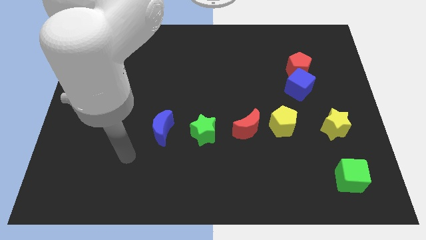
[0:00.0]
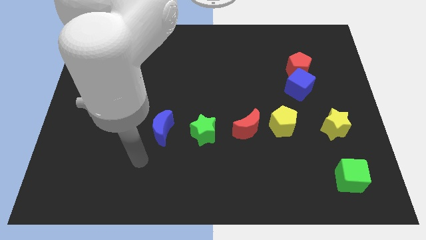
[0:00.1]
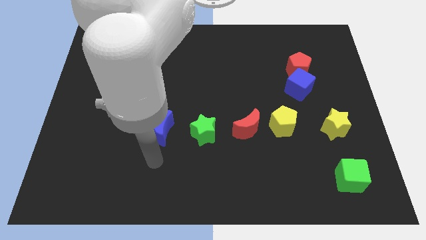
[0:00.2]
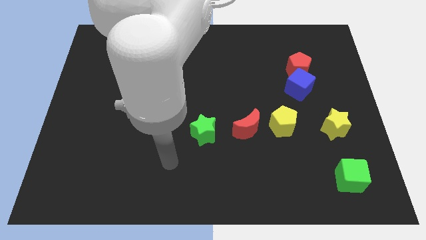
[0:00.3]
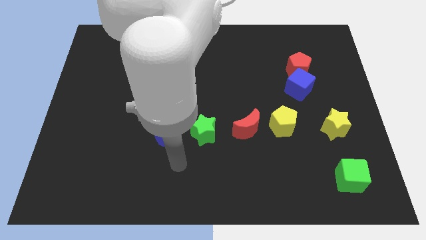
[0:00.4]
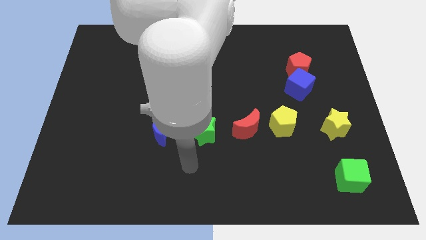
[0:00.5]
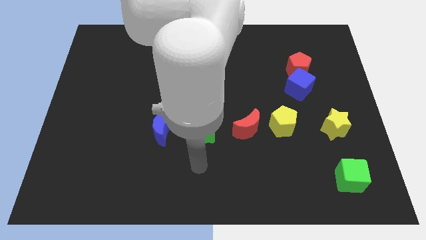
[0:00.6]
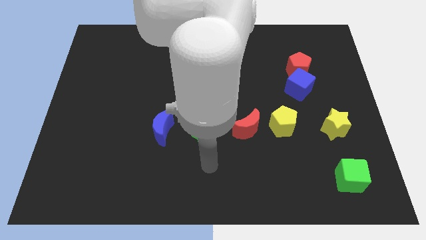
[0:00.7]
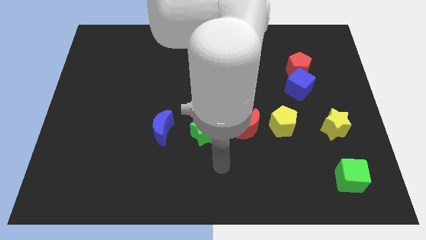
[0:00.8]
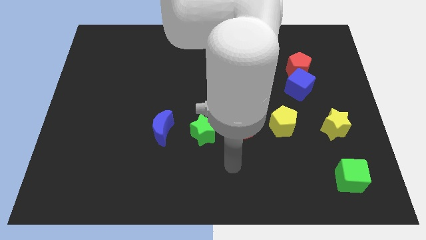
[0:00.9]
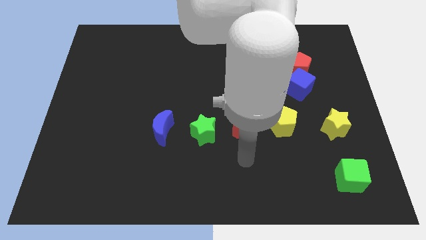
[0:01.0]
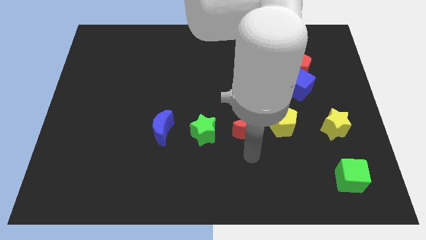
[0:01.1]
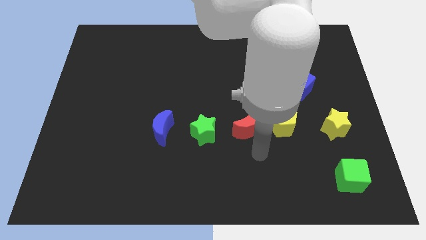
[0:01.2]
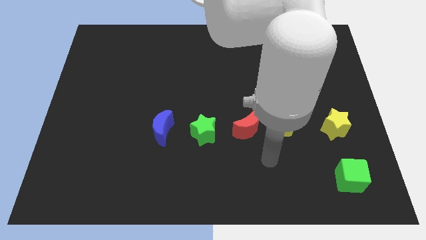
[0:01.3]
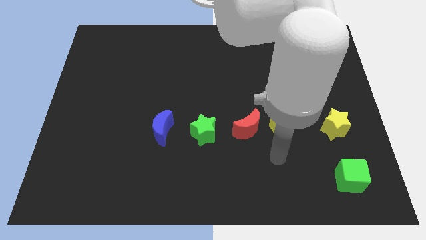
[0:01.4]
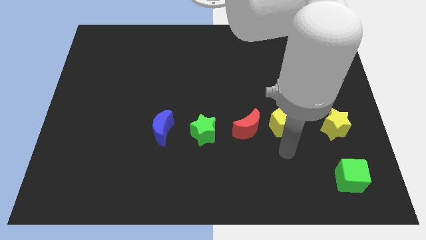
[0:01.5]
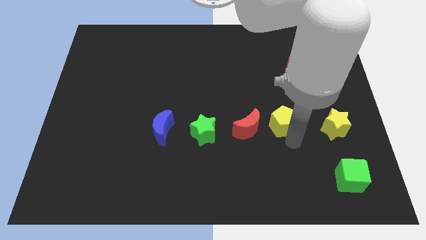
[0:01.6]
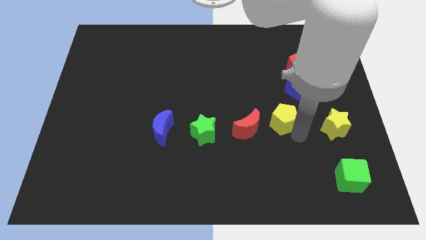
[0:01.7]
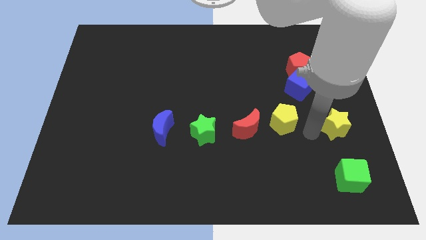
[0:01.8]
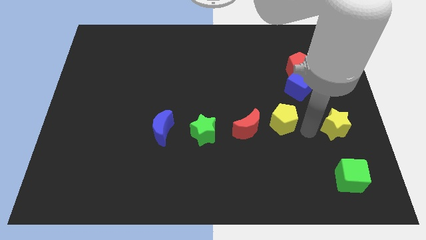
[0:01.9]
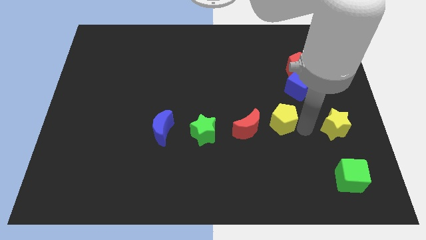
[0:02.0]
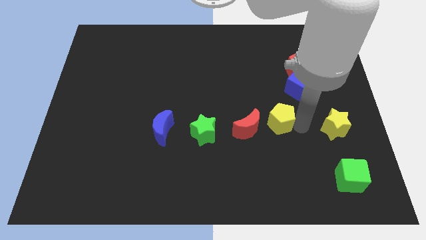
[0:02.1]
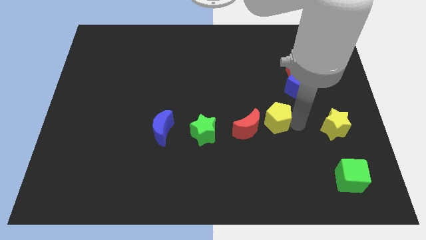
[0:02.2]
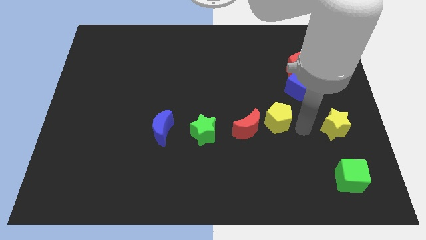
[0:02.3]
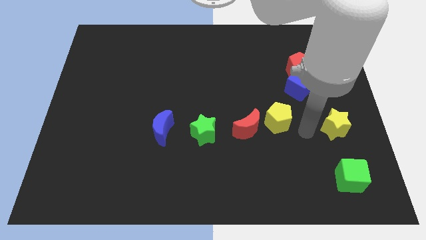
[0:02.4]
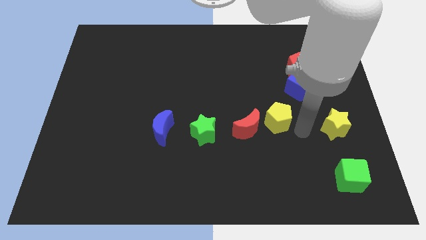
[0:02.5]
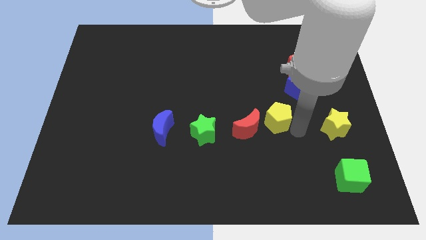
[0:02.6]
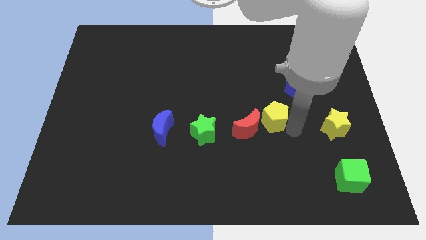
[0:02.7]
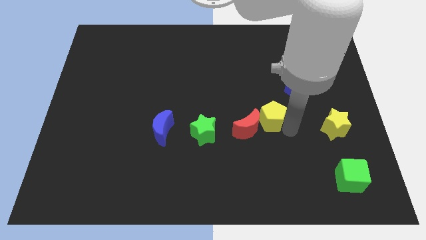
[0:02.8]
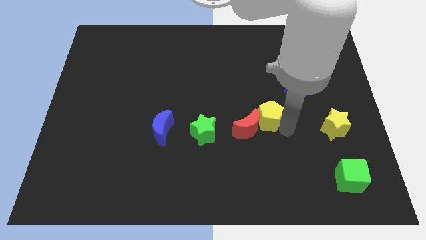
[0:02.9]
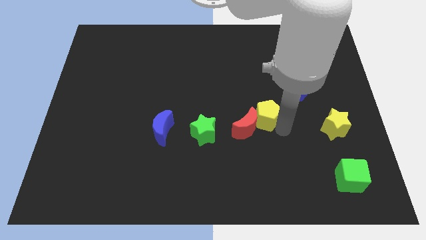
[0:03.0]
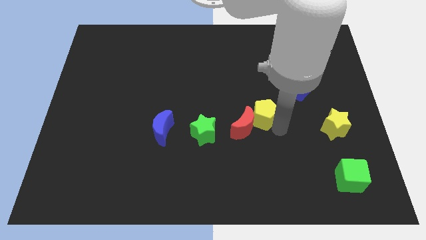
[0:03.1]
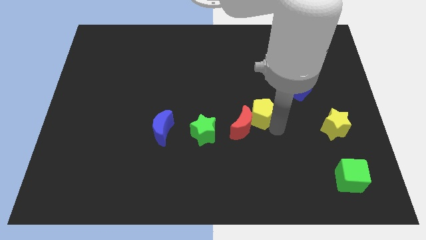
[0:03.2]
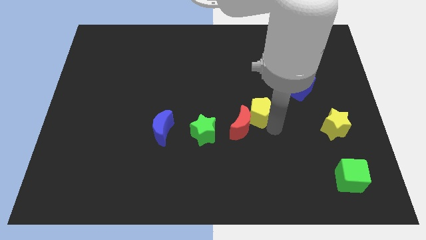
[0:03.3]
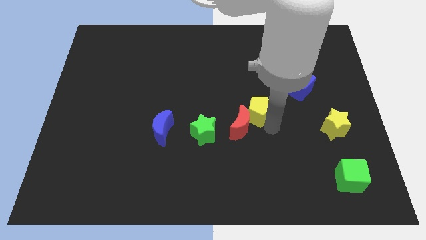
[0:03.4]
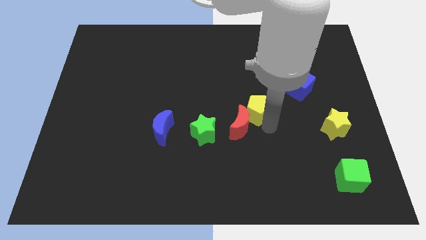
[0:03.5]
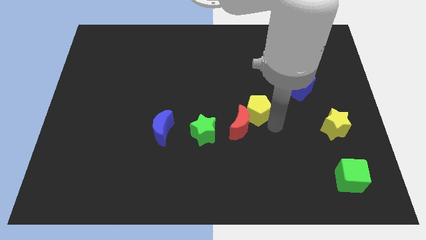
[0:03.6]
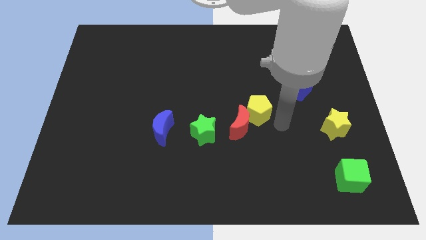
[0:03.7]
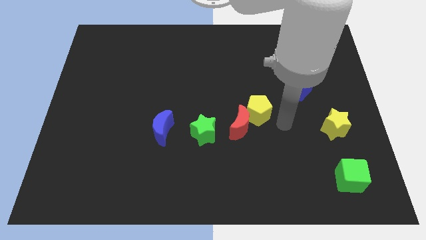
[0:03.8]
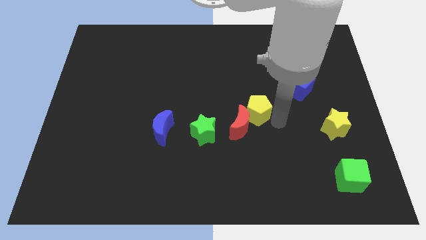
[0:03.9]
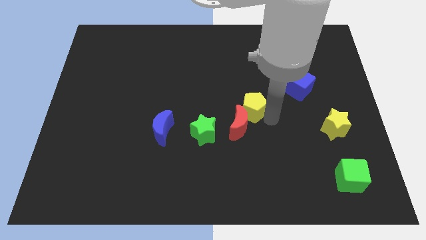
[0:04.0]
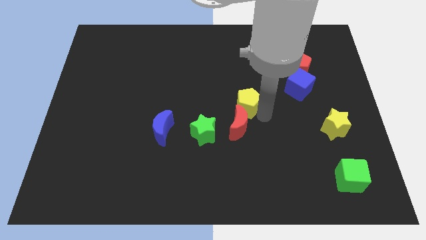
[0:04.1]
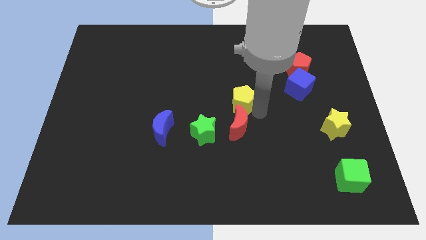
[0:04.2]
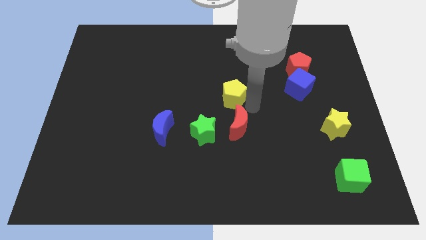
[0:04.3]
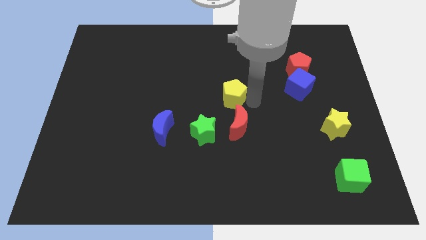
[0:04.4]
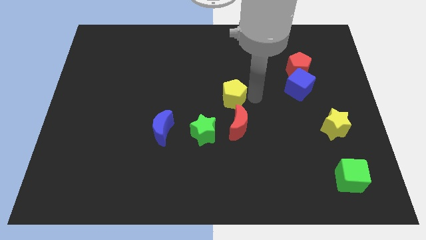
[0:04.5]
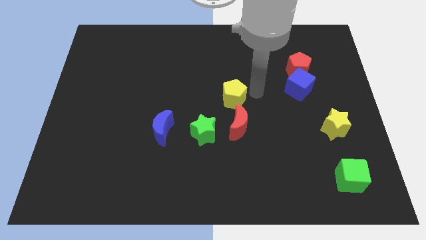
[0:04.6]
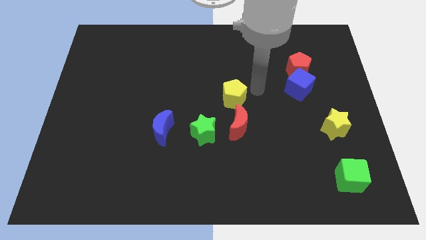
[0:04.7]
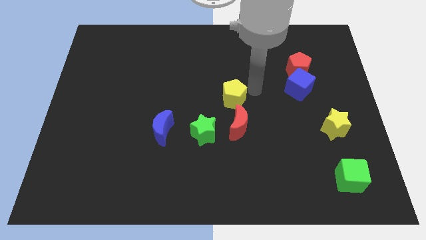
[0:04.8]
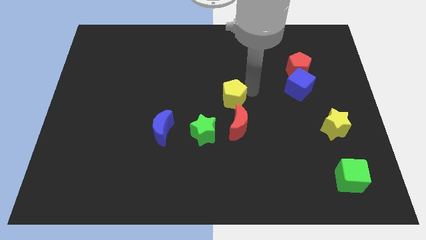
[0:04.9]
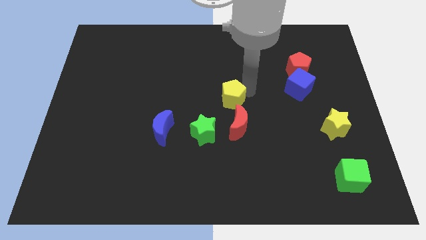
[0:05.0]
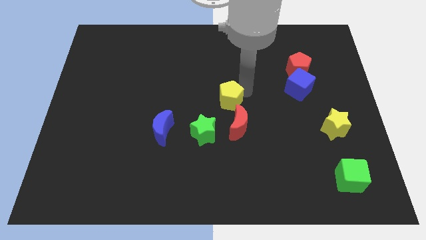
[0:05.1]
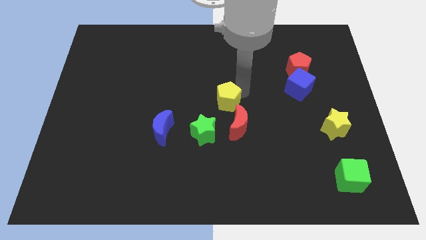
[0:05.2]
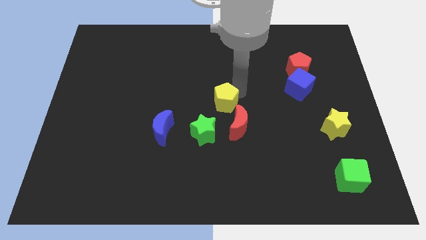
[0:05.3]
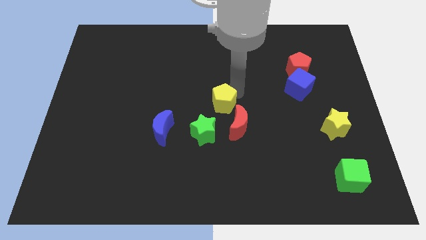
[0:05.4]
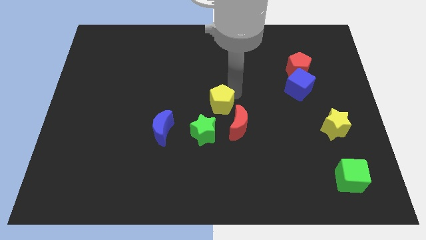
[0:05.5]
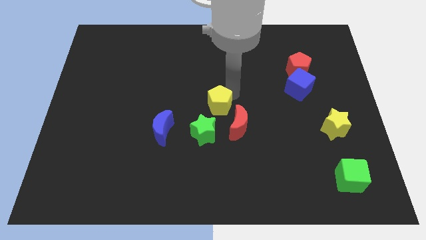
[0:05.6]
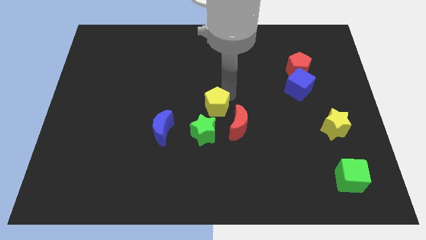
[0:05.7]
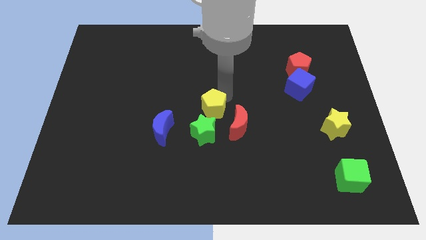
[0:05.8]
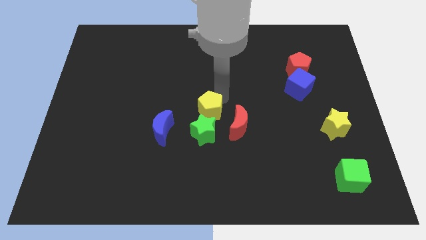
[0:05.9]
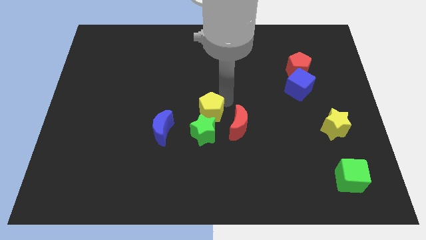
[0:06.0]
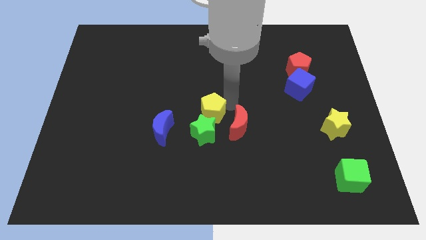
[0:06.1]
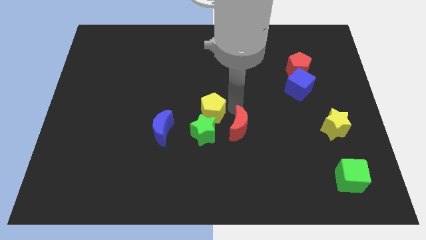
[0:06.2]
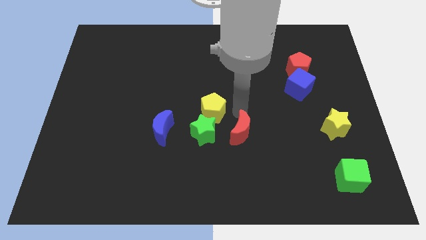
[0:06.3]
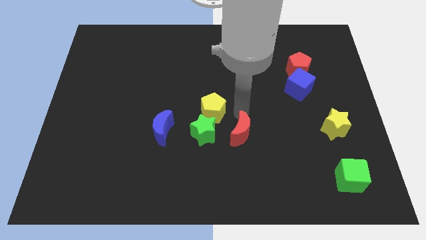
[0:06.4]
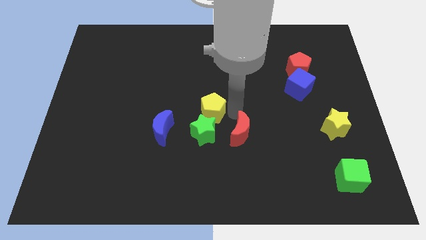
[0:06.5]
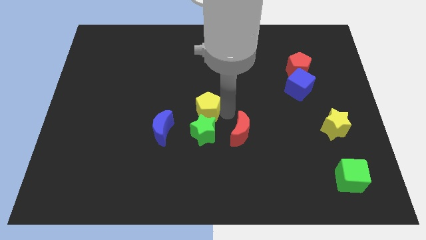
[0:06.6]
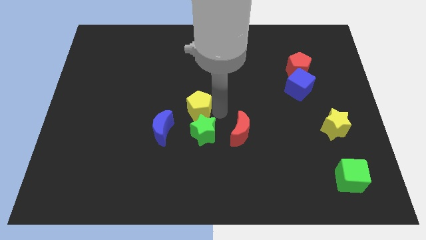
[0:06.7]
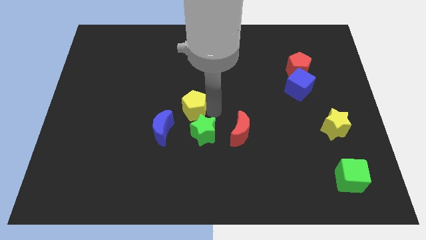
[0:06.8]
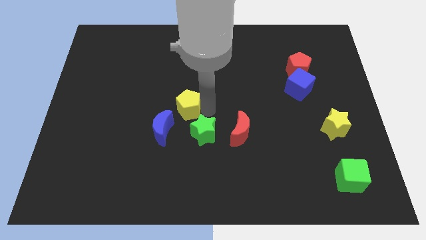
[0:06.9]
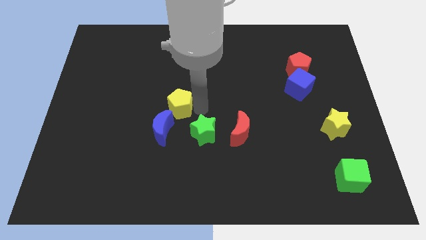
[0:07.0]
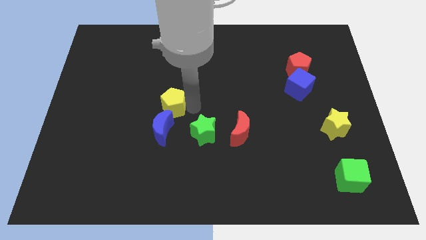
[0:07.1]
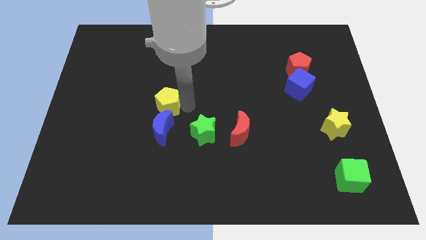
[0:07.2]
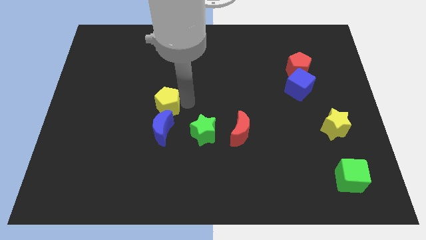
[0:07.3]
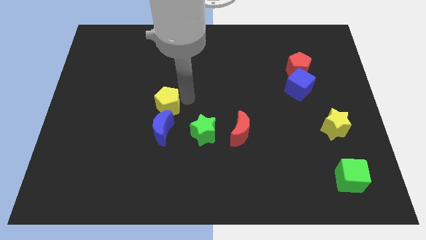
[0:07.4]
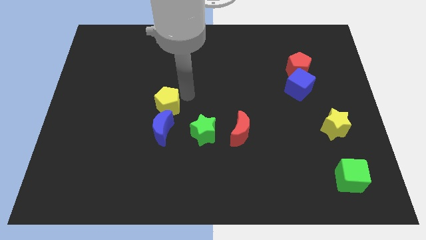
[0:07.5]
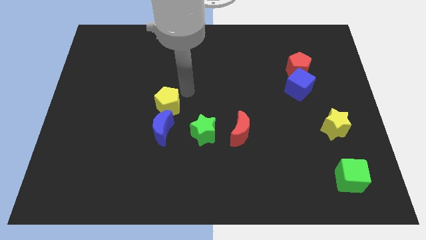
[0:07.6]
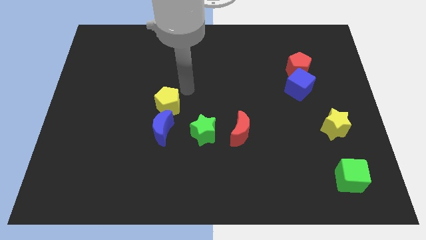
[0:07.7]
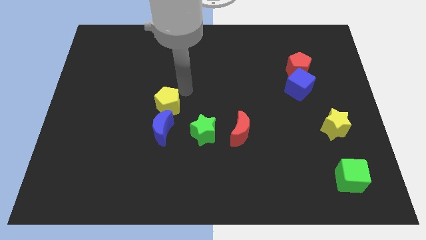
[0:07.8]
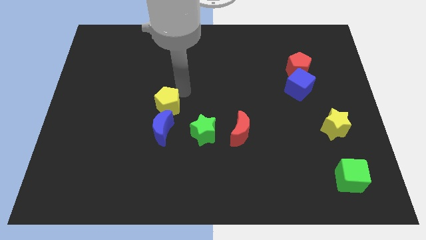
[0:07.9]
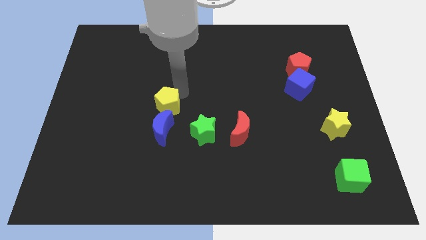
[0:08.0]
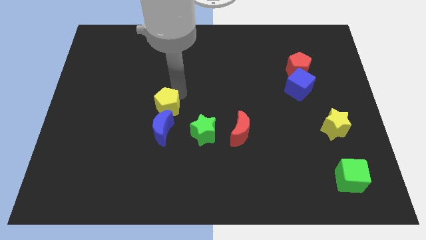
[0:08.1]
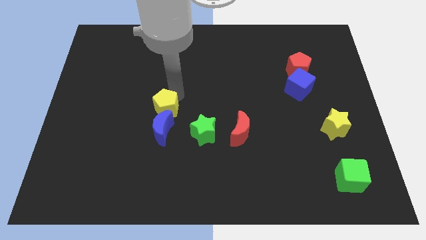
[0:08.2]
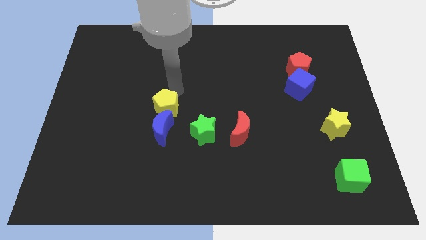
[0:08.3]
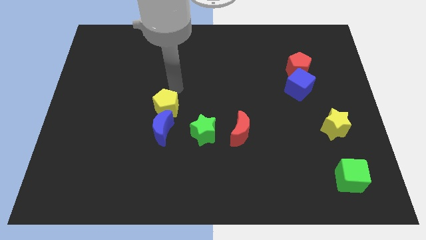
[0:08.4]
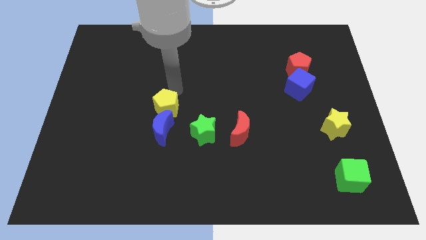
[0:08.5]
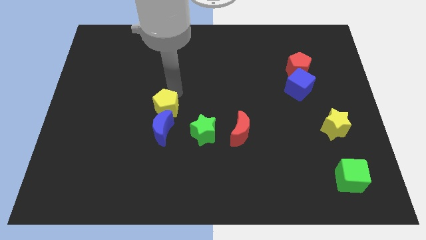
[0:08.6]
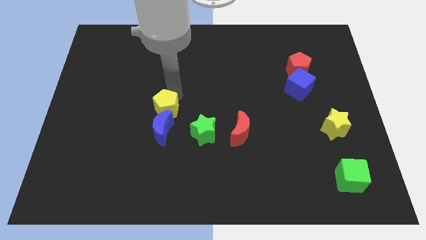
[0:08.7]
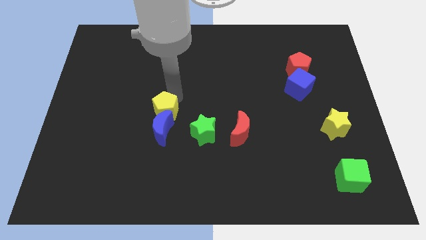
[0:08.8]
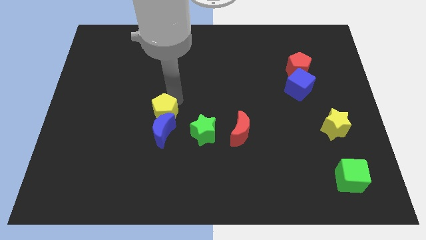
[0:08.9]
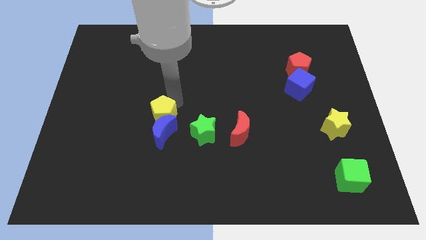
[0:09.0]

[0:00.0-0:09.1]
put the yellow pentagon just left of the green star
